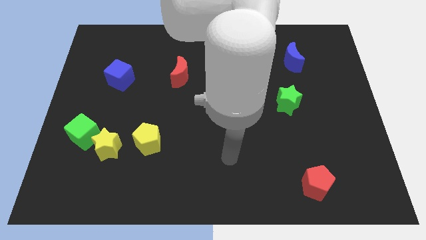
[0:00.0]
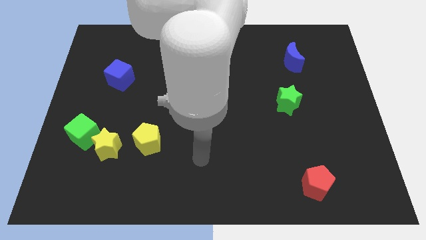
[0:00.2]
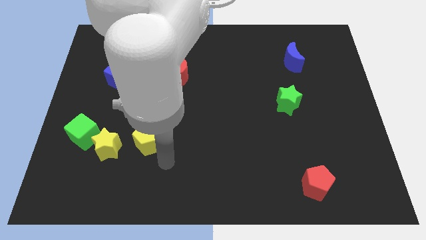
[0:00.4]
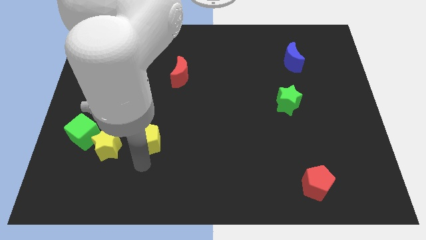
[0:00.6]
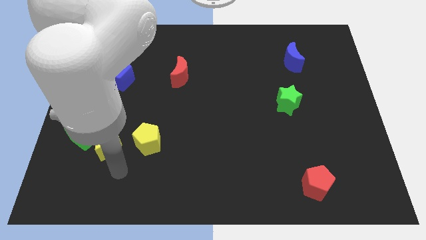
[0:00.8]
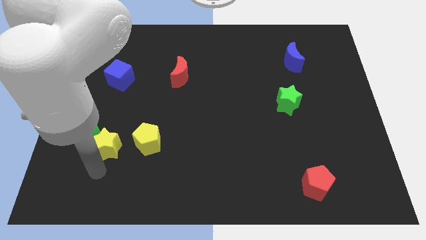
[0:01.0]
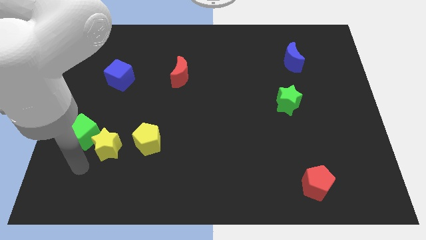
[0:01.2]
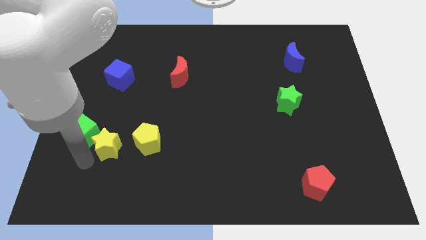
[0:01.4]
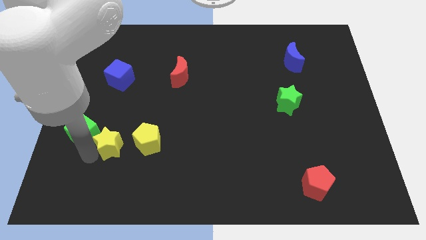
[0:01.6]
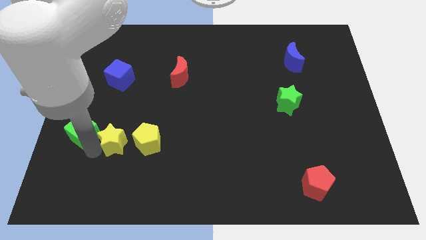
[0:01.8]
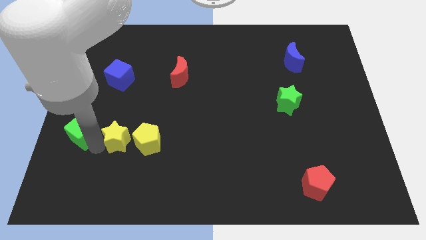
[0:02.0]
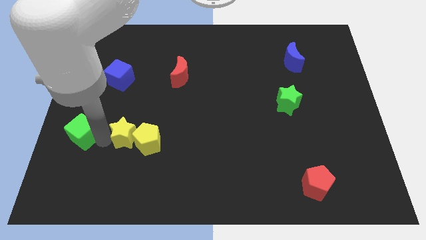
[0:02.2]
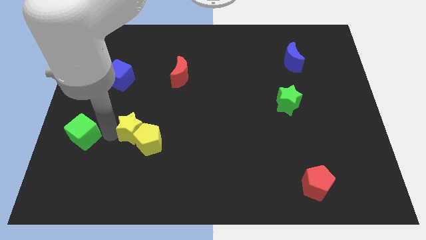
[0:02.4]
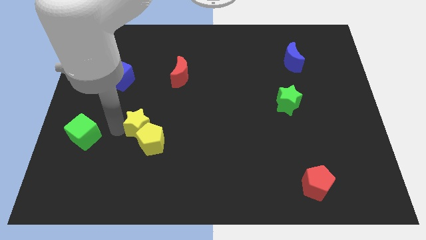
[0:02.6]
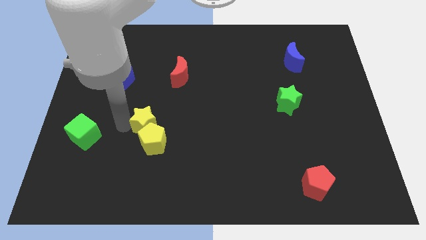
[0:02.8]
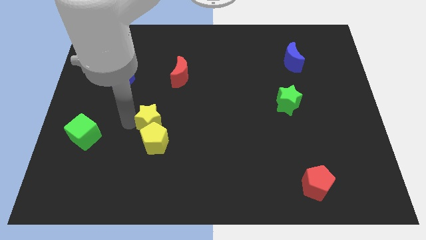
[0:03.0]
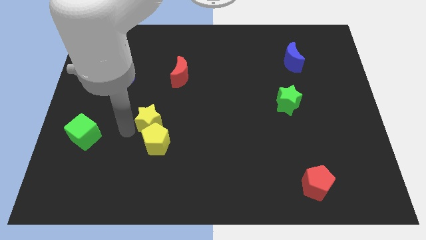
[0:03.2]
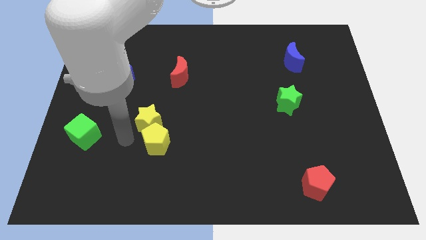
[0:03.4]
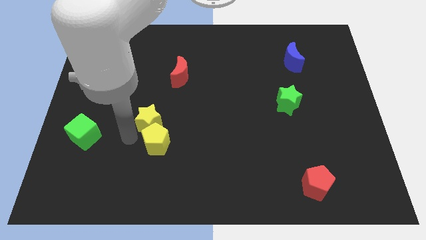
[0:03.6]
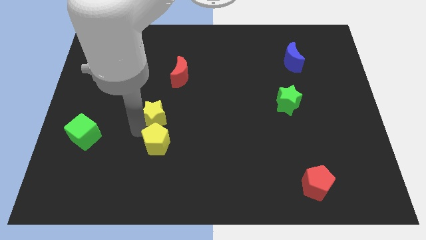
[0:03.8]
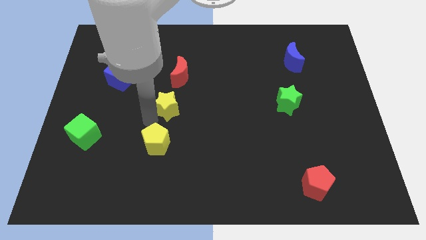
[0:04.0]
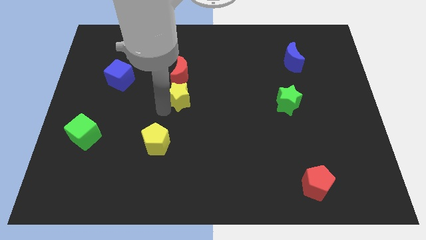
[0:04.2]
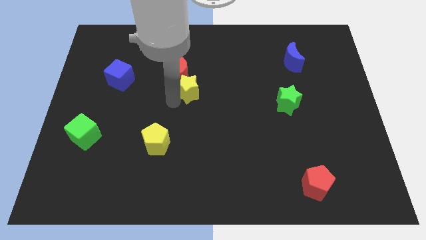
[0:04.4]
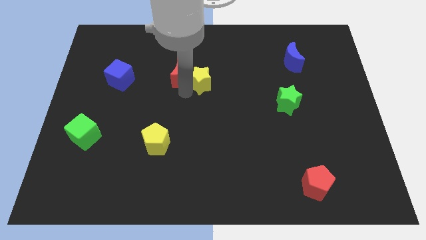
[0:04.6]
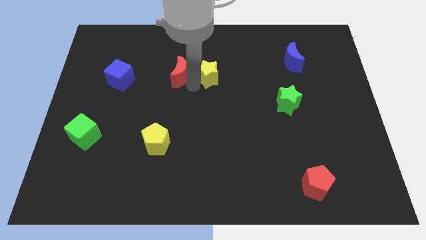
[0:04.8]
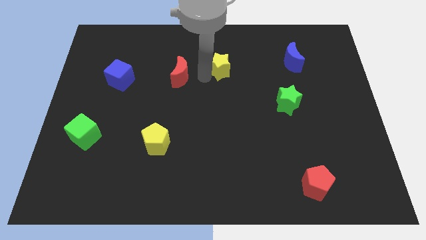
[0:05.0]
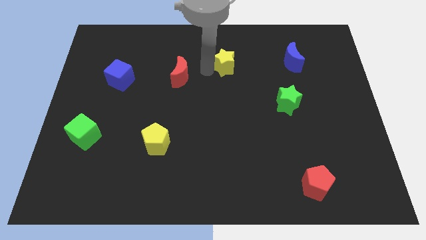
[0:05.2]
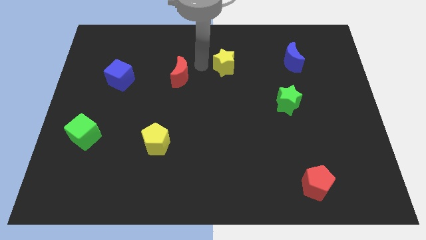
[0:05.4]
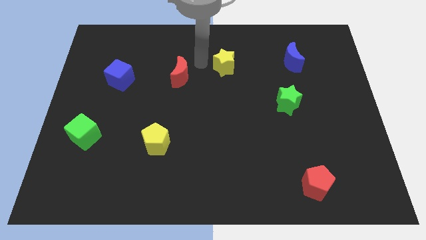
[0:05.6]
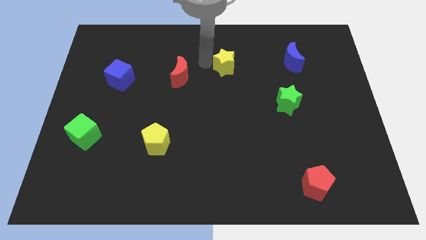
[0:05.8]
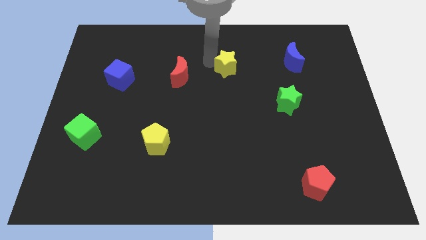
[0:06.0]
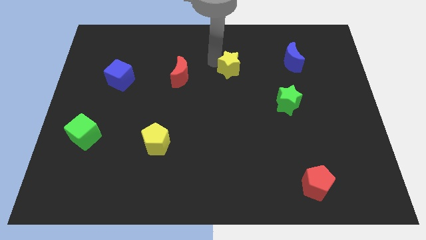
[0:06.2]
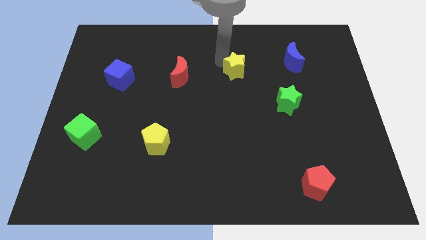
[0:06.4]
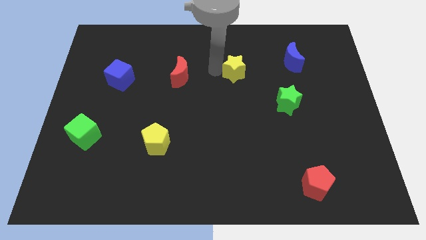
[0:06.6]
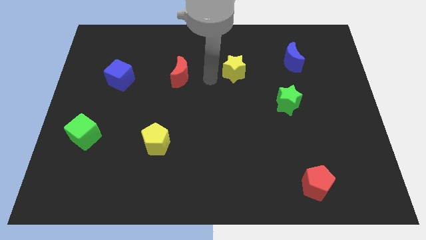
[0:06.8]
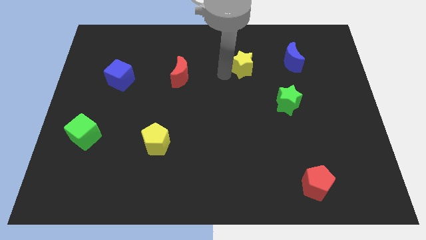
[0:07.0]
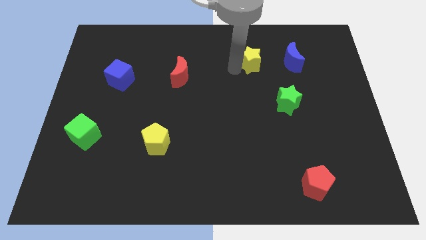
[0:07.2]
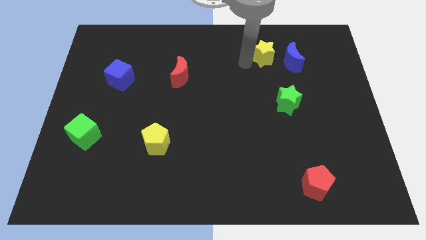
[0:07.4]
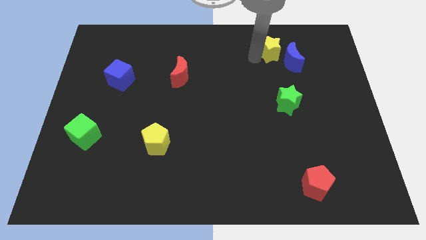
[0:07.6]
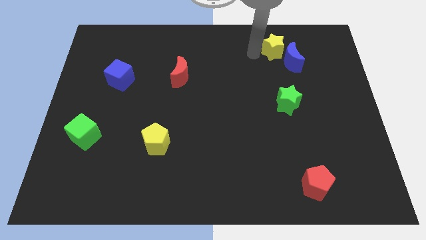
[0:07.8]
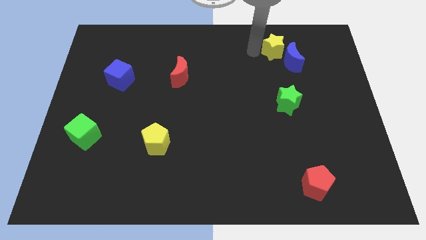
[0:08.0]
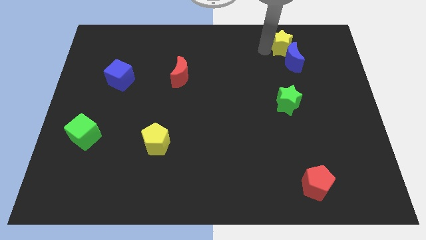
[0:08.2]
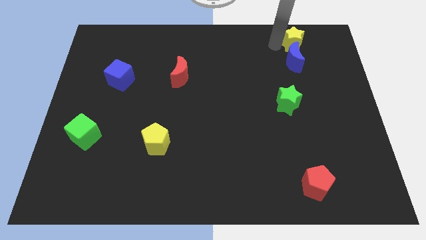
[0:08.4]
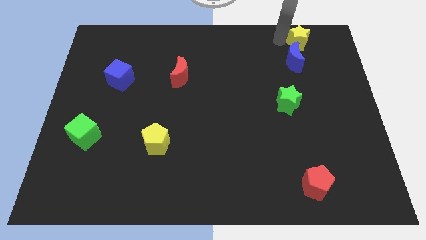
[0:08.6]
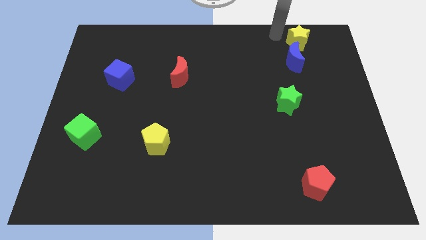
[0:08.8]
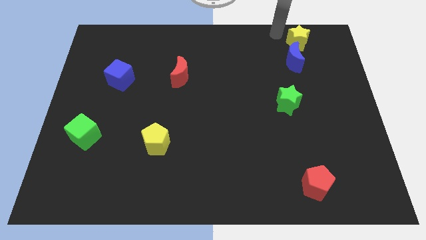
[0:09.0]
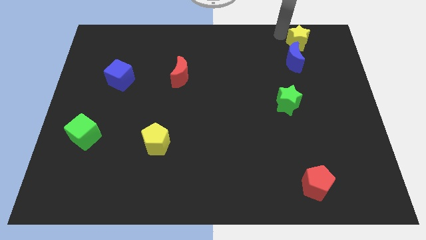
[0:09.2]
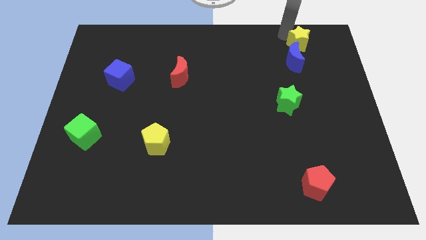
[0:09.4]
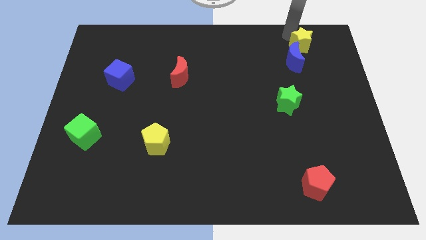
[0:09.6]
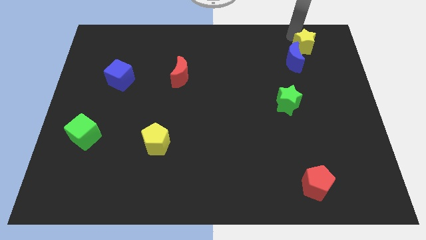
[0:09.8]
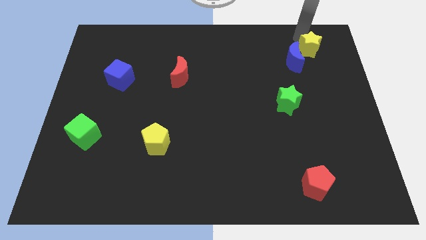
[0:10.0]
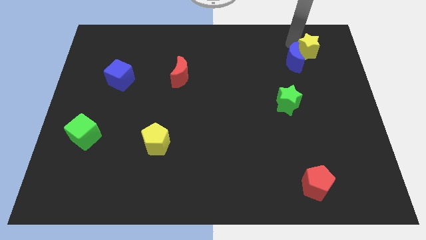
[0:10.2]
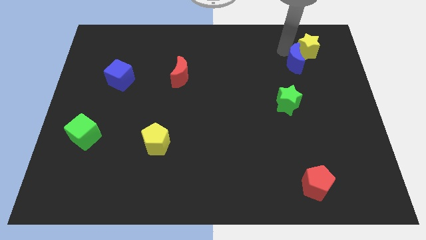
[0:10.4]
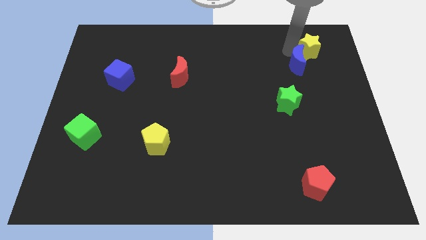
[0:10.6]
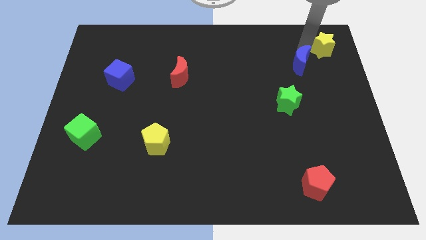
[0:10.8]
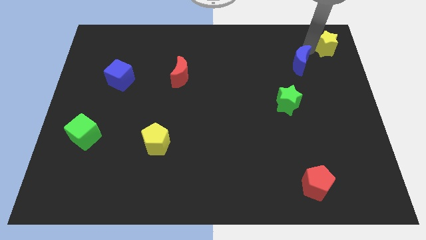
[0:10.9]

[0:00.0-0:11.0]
put the yellow star to the upper right corner

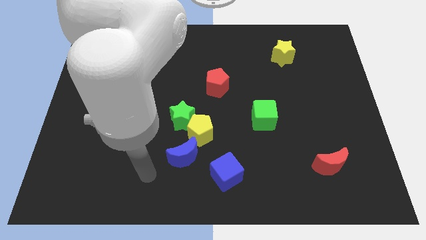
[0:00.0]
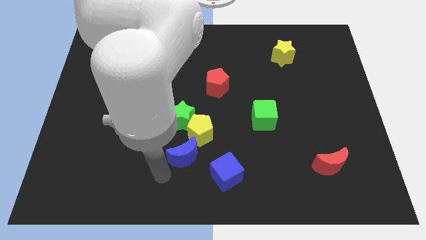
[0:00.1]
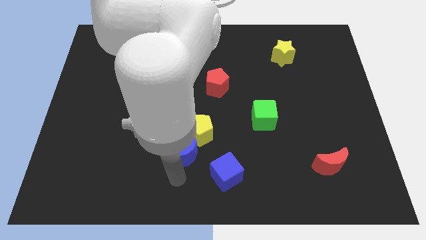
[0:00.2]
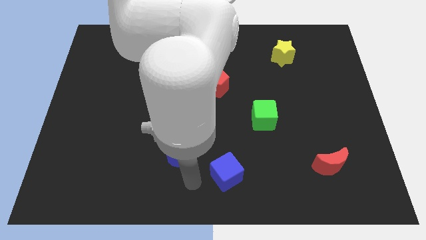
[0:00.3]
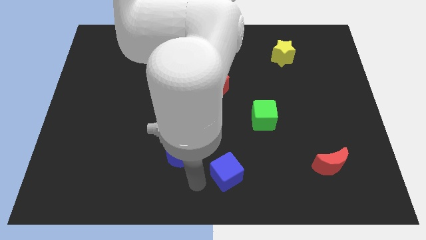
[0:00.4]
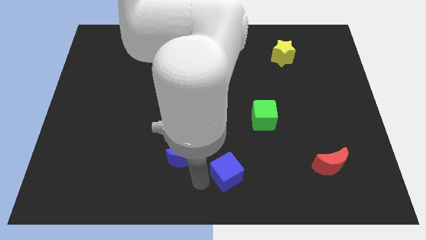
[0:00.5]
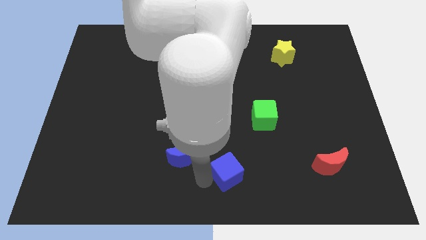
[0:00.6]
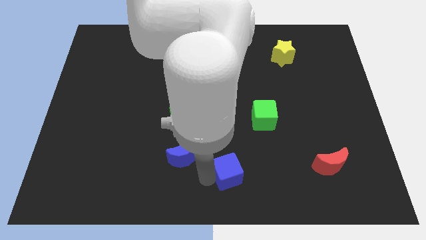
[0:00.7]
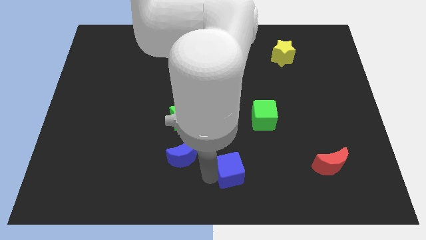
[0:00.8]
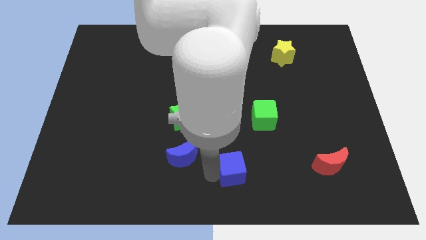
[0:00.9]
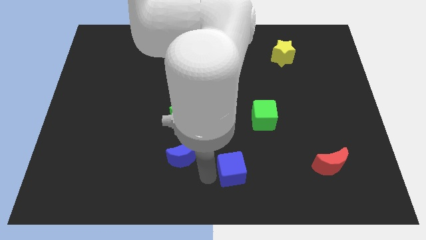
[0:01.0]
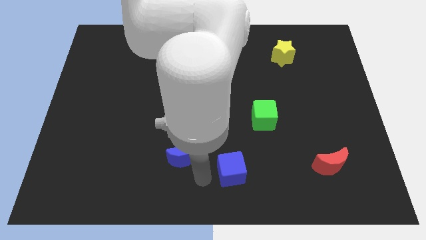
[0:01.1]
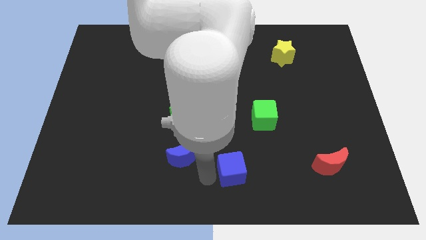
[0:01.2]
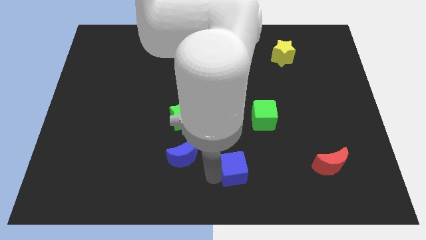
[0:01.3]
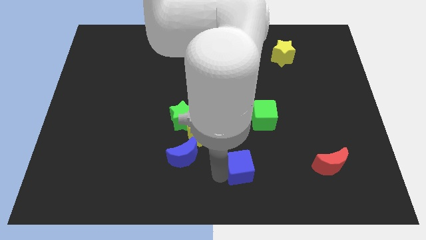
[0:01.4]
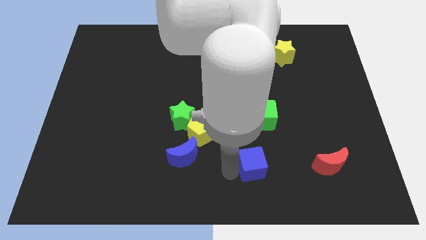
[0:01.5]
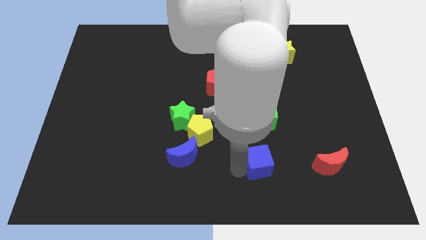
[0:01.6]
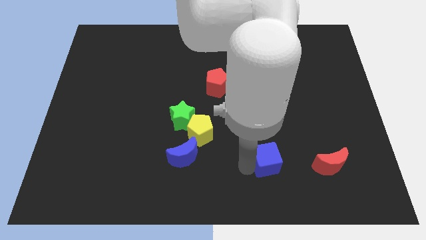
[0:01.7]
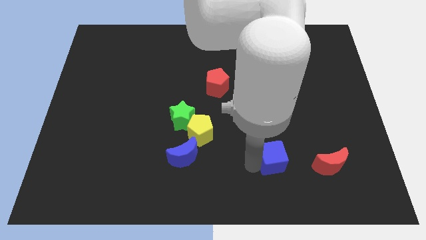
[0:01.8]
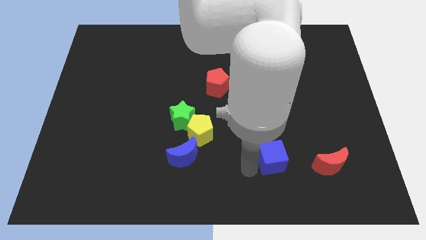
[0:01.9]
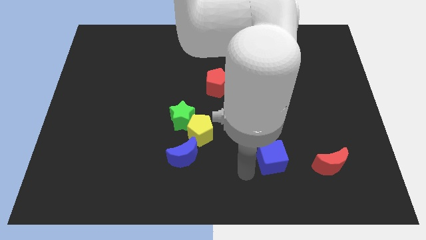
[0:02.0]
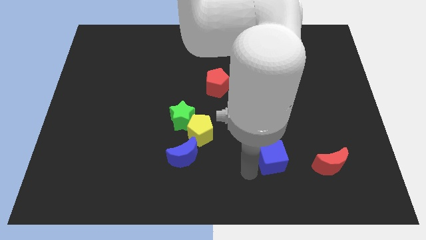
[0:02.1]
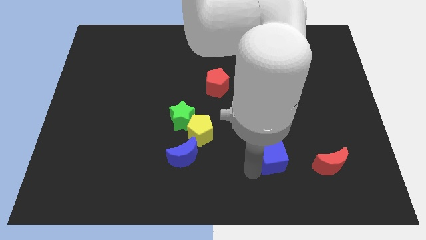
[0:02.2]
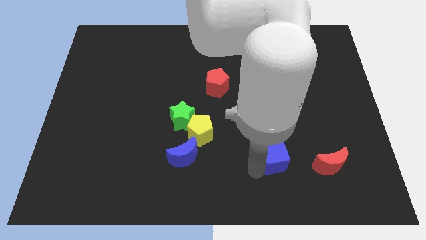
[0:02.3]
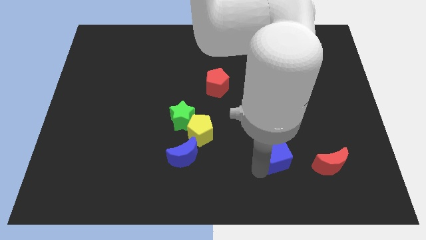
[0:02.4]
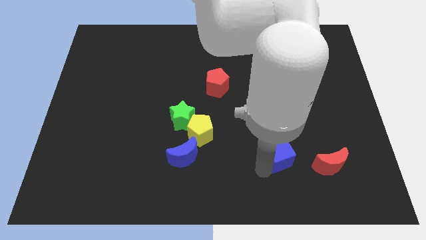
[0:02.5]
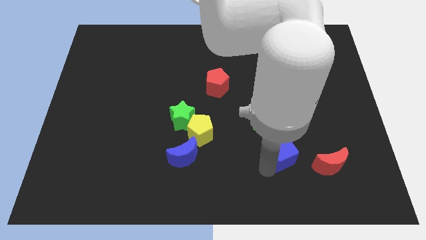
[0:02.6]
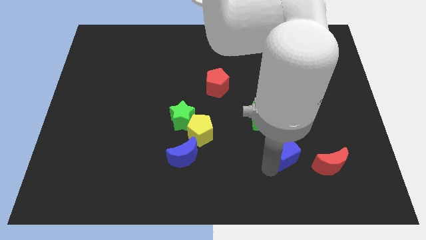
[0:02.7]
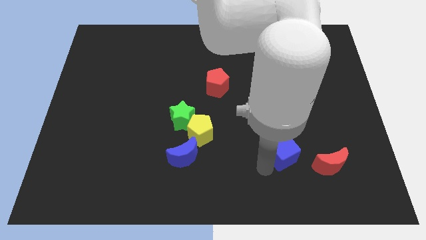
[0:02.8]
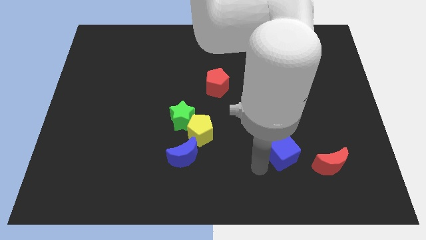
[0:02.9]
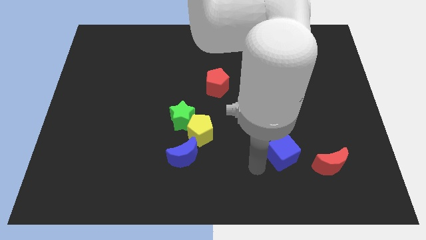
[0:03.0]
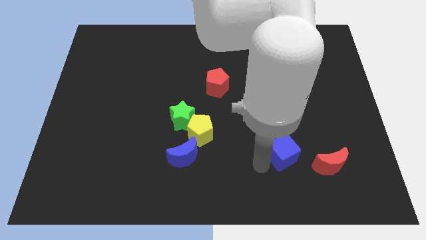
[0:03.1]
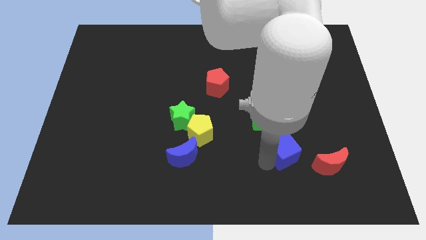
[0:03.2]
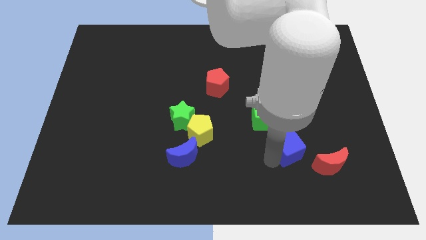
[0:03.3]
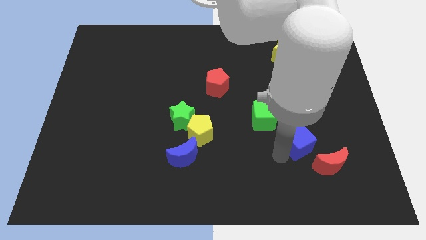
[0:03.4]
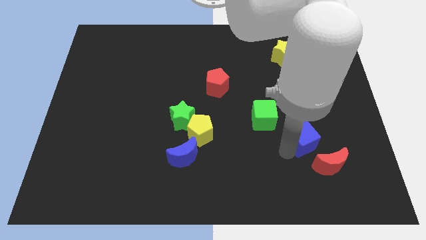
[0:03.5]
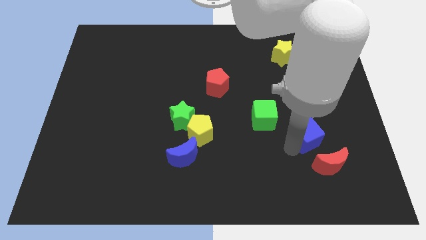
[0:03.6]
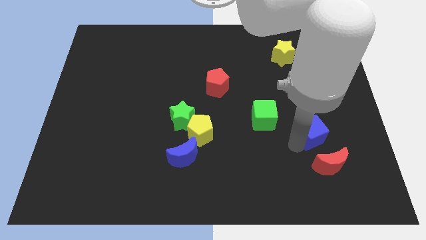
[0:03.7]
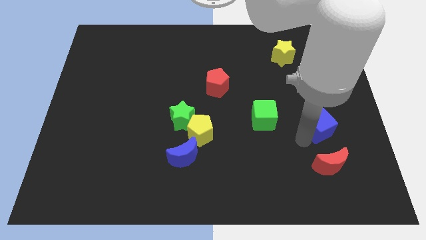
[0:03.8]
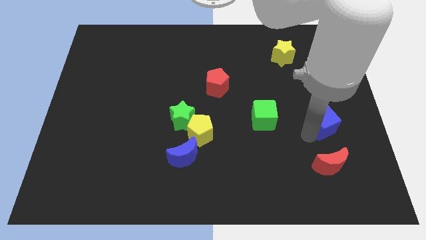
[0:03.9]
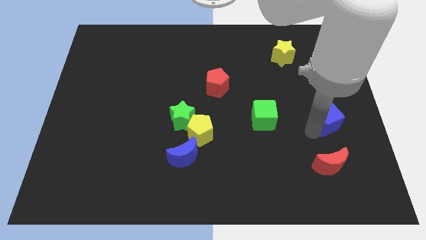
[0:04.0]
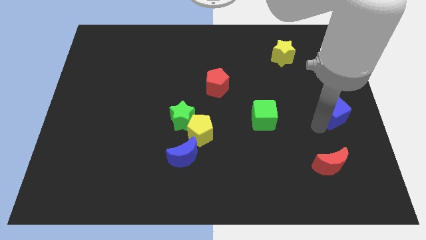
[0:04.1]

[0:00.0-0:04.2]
put the blue cube to the center right
